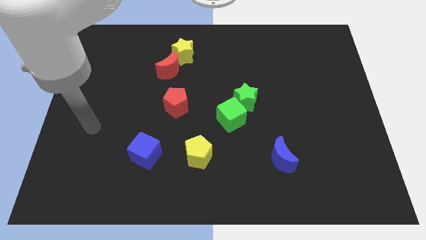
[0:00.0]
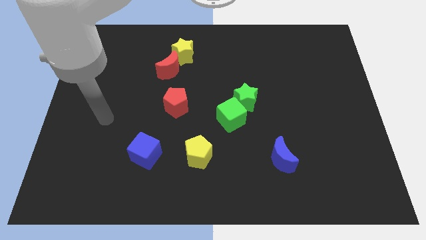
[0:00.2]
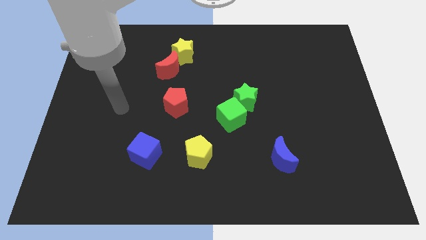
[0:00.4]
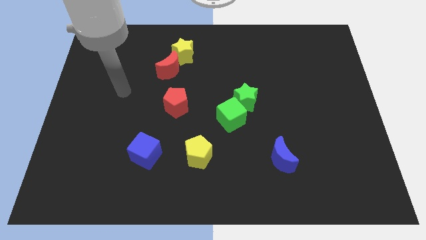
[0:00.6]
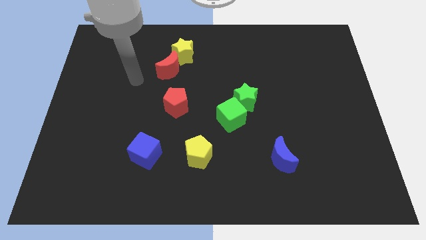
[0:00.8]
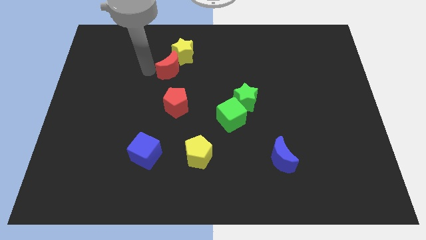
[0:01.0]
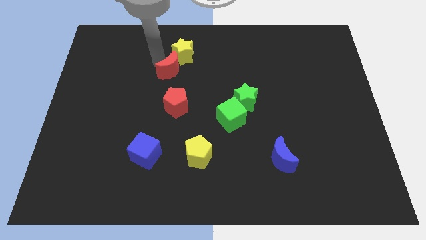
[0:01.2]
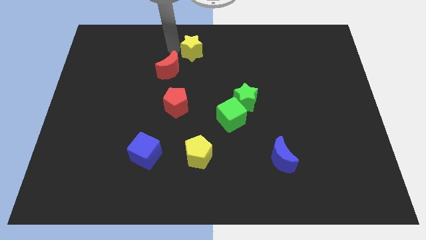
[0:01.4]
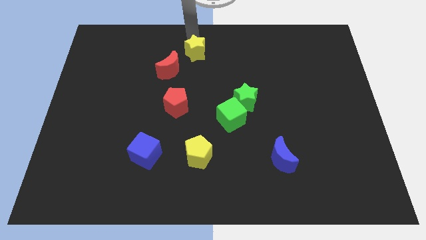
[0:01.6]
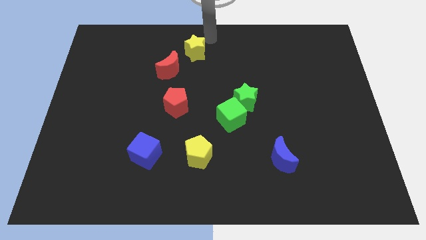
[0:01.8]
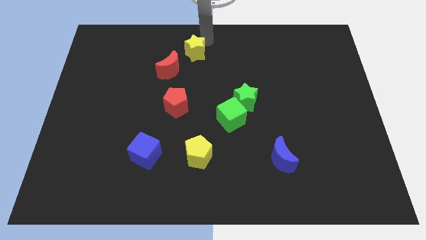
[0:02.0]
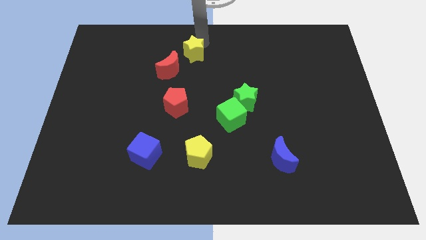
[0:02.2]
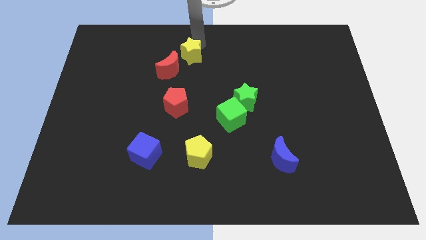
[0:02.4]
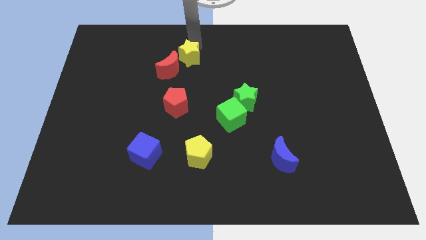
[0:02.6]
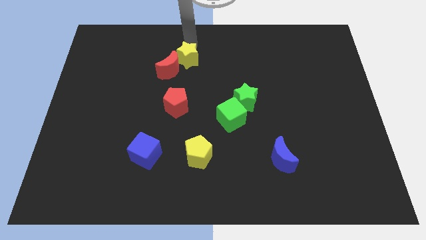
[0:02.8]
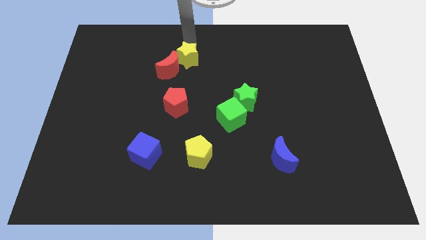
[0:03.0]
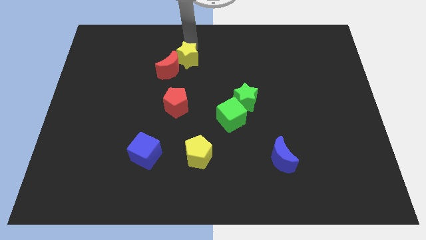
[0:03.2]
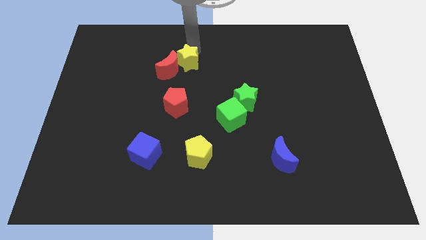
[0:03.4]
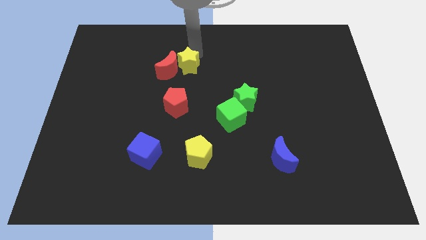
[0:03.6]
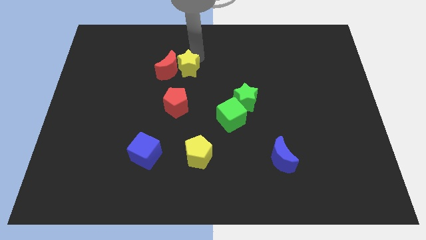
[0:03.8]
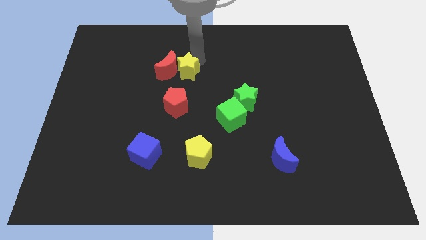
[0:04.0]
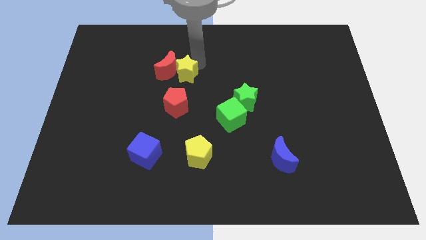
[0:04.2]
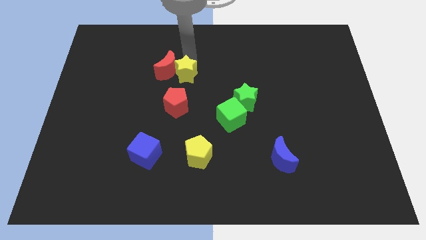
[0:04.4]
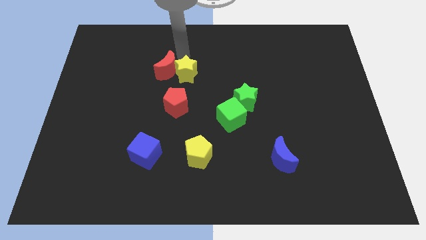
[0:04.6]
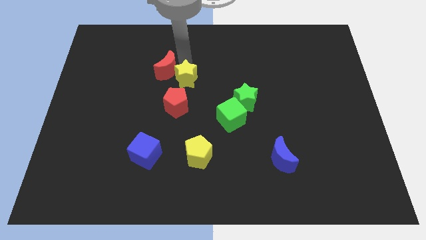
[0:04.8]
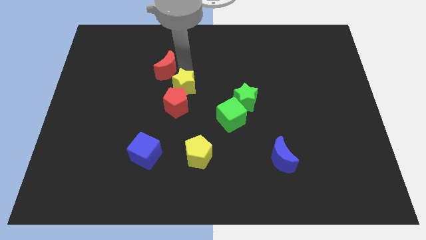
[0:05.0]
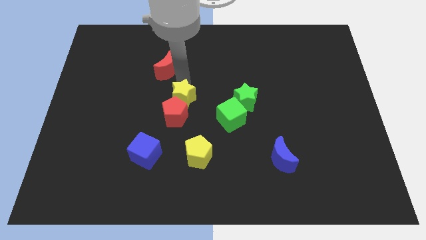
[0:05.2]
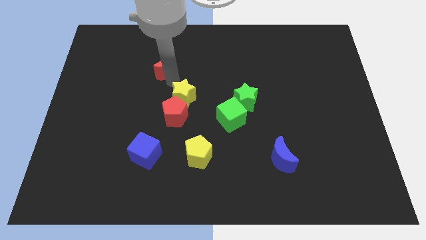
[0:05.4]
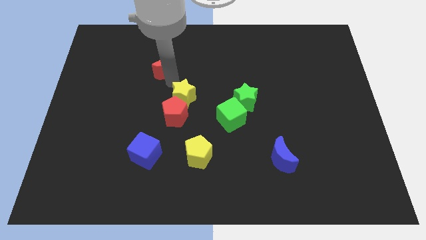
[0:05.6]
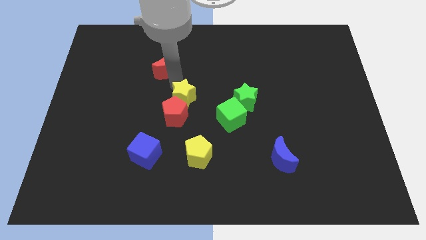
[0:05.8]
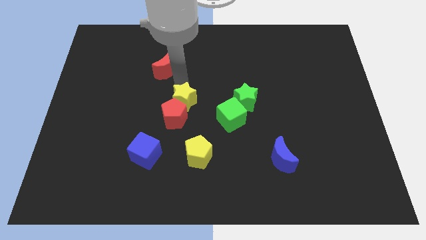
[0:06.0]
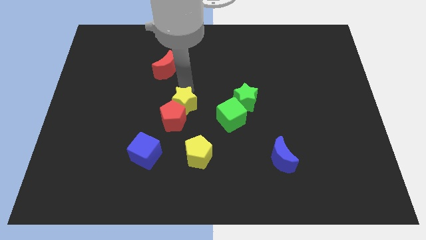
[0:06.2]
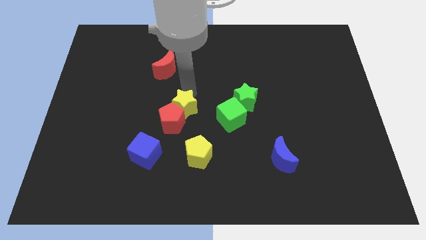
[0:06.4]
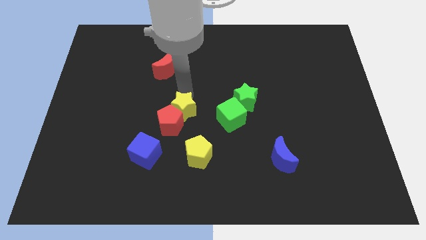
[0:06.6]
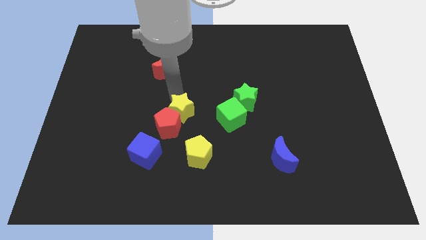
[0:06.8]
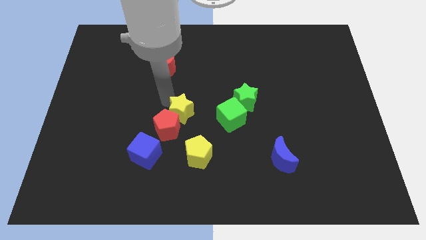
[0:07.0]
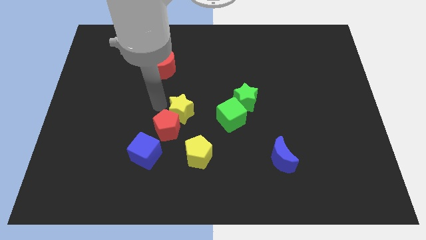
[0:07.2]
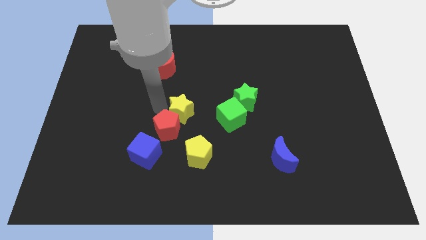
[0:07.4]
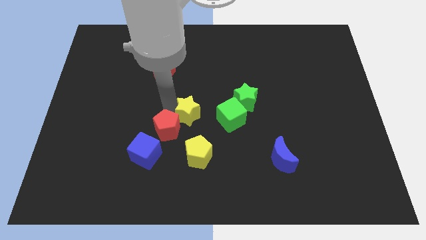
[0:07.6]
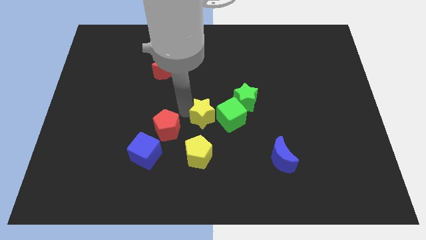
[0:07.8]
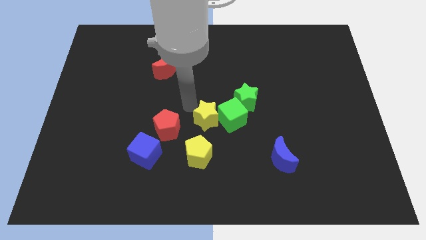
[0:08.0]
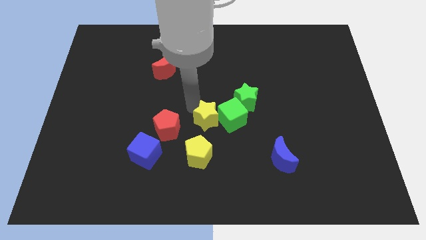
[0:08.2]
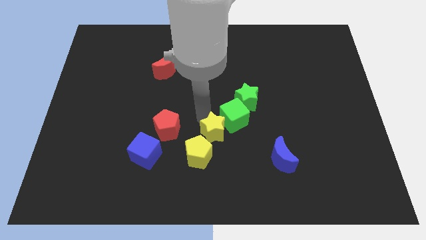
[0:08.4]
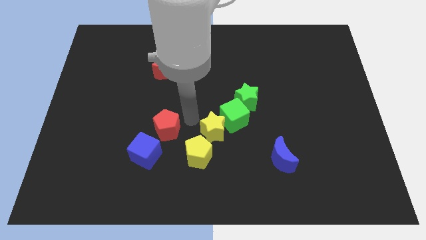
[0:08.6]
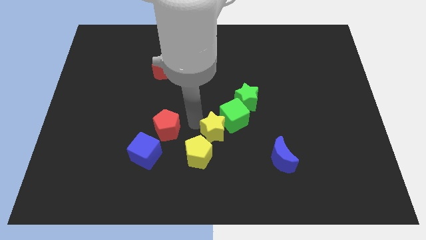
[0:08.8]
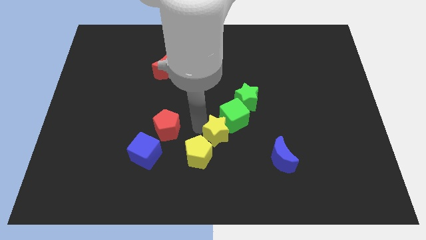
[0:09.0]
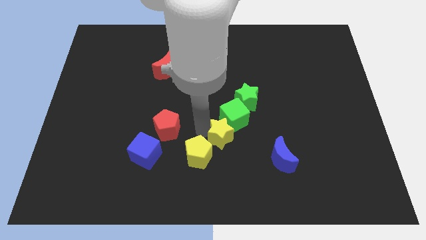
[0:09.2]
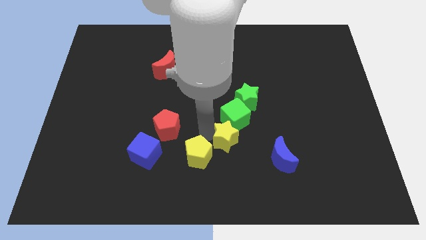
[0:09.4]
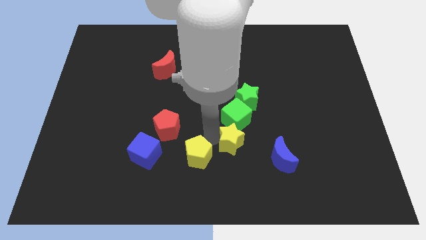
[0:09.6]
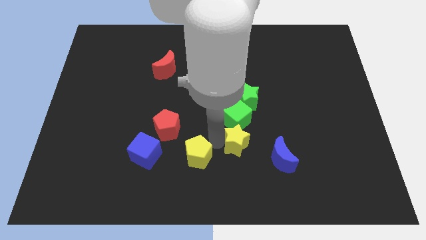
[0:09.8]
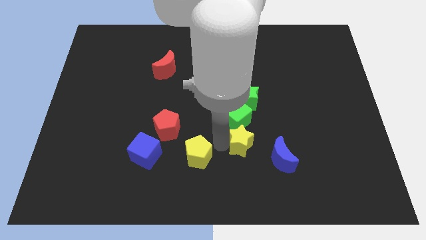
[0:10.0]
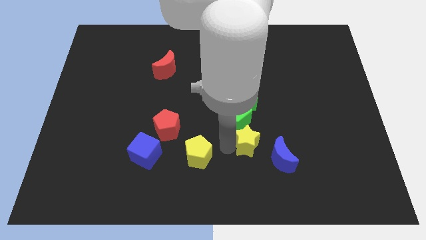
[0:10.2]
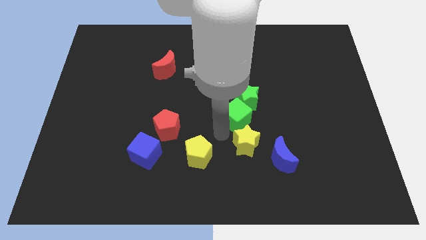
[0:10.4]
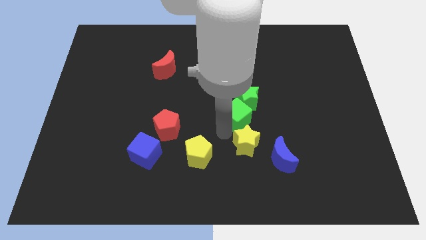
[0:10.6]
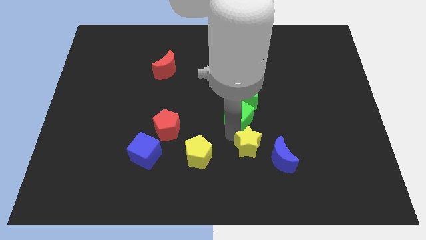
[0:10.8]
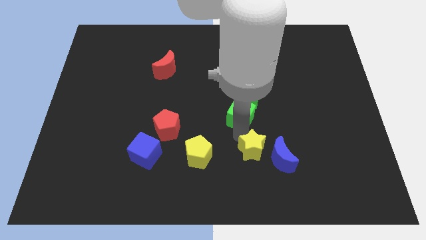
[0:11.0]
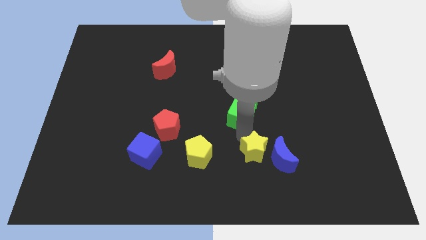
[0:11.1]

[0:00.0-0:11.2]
put the yellow star towards the blue moon

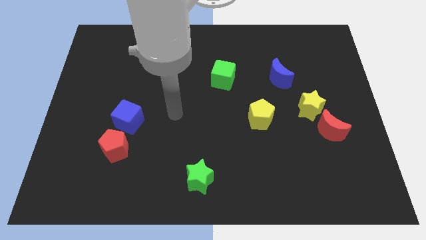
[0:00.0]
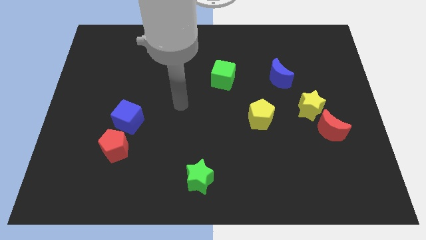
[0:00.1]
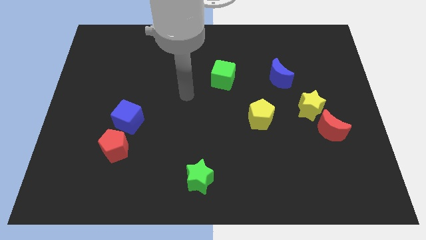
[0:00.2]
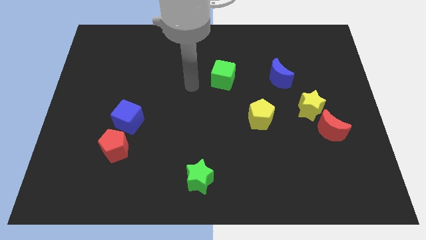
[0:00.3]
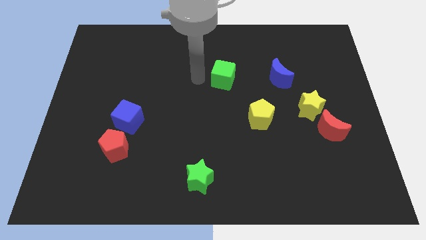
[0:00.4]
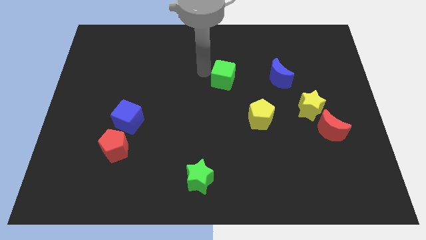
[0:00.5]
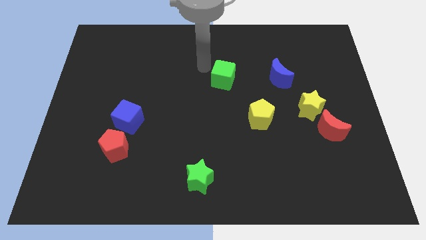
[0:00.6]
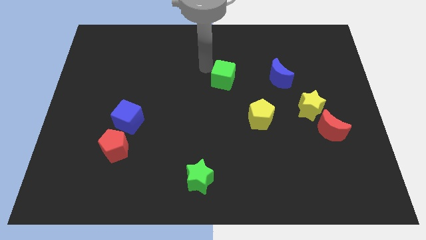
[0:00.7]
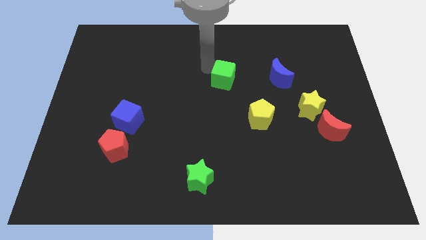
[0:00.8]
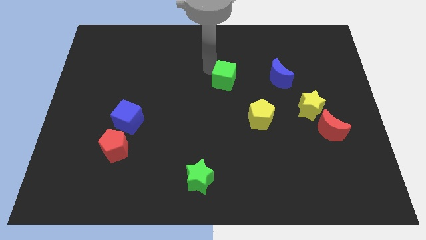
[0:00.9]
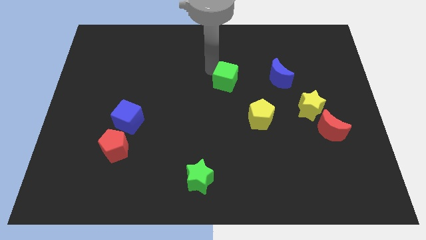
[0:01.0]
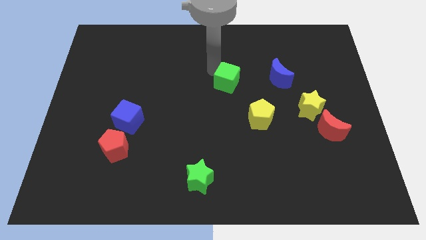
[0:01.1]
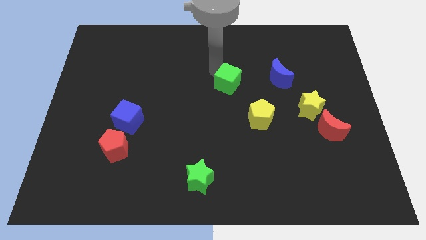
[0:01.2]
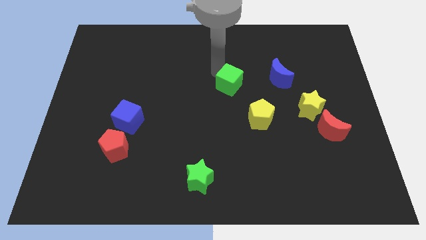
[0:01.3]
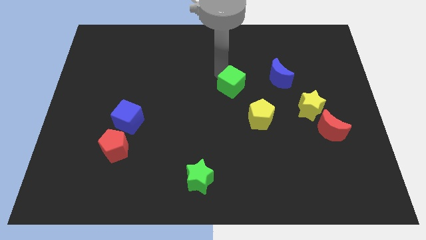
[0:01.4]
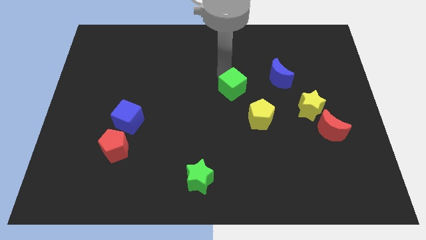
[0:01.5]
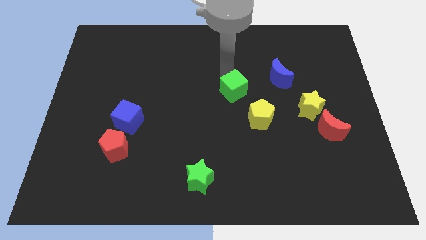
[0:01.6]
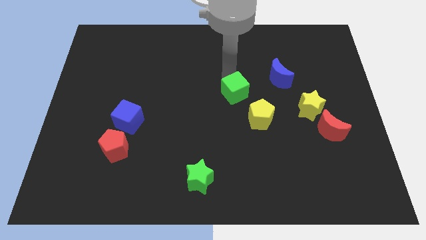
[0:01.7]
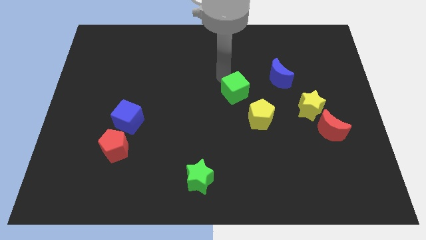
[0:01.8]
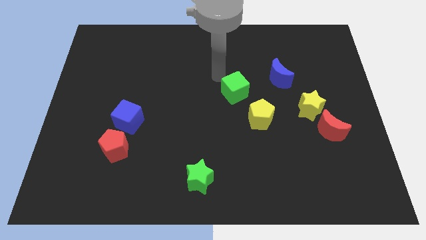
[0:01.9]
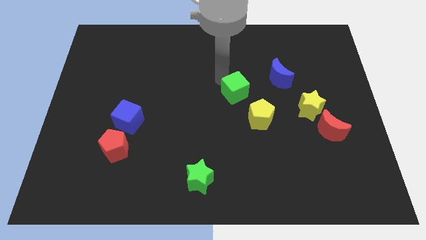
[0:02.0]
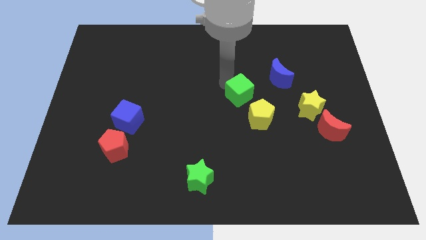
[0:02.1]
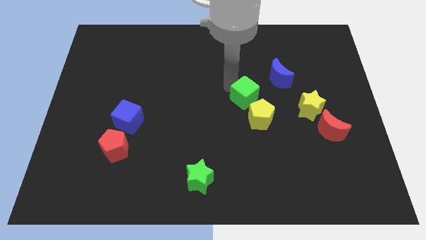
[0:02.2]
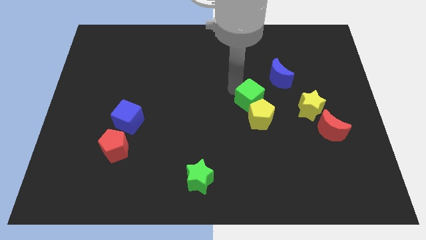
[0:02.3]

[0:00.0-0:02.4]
put the green cube next to the yellow pentagon
